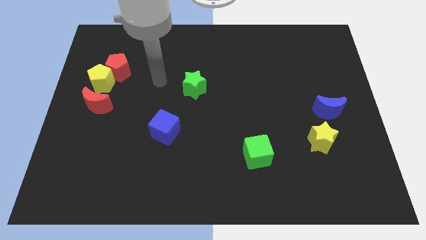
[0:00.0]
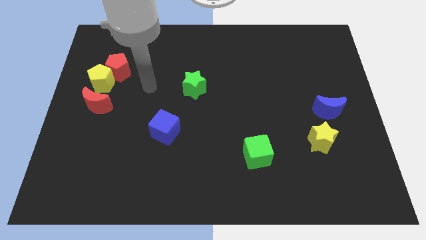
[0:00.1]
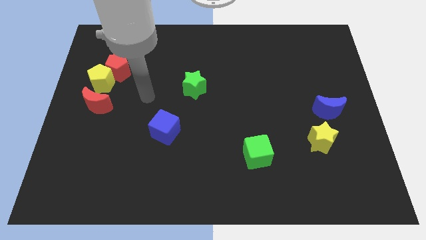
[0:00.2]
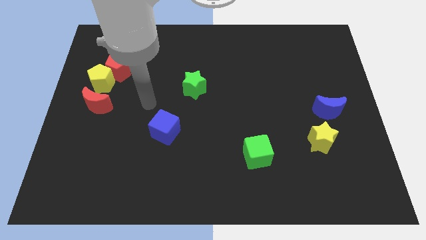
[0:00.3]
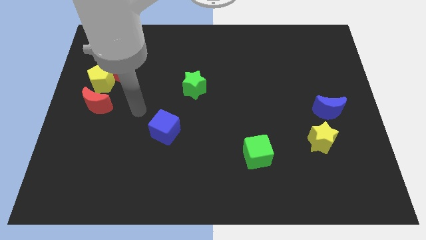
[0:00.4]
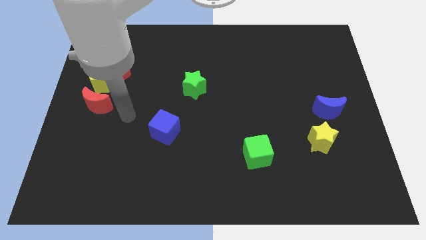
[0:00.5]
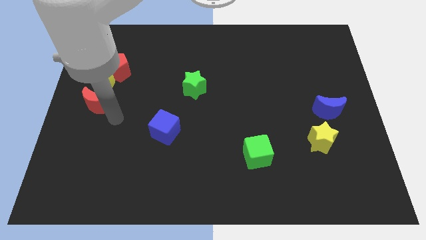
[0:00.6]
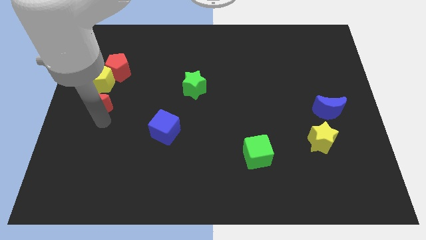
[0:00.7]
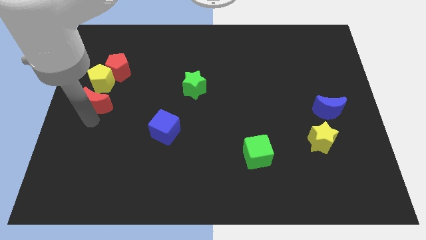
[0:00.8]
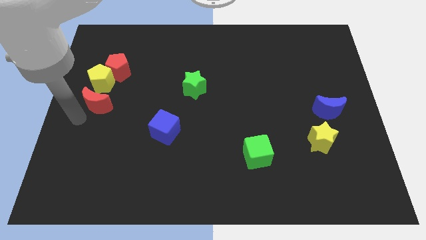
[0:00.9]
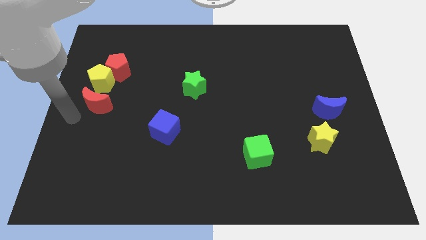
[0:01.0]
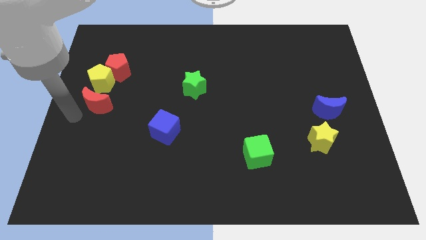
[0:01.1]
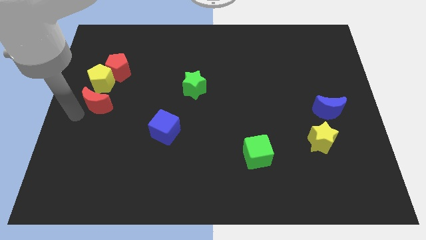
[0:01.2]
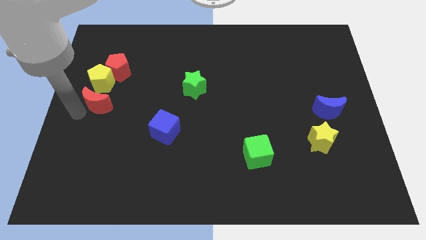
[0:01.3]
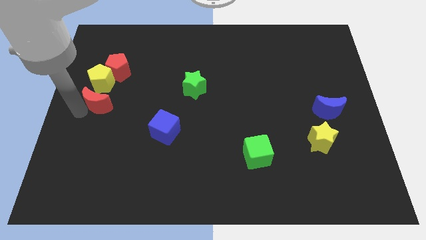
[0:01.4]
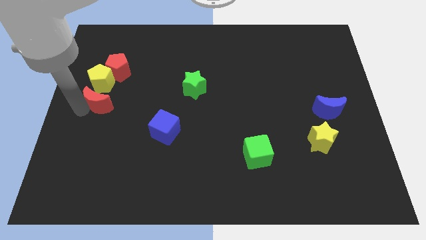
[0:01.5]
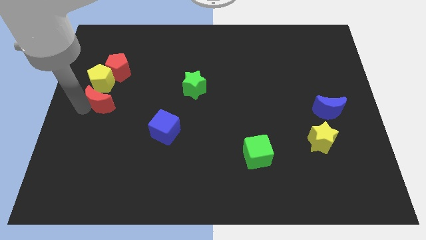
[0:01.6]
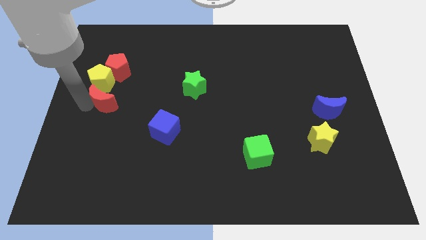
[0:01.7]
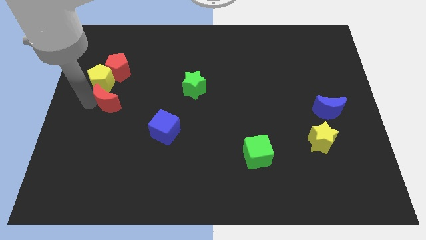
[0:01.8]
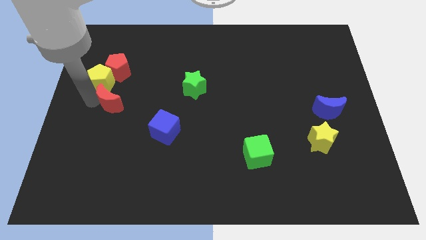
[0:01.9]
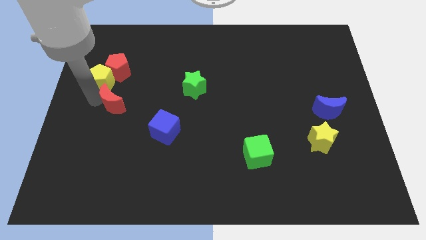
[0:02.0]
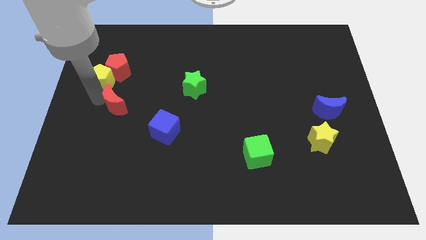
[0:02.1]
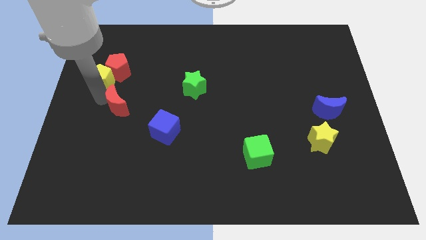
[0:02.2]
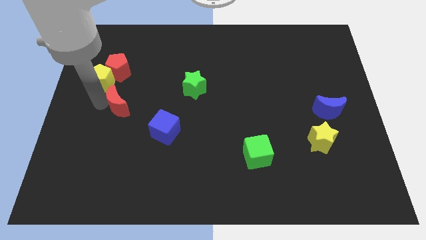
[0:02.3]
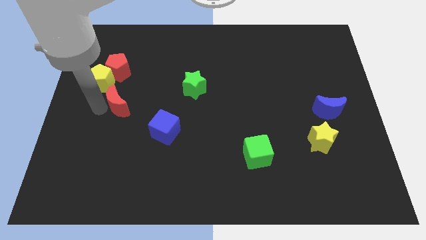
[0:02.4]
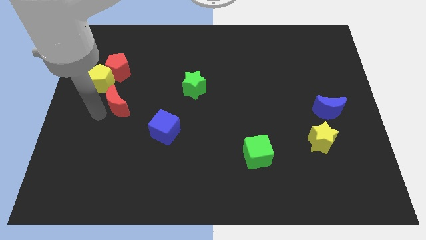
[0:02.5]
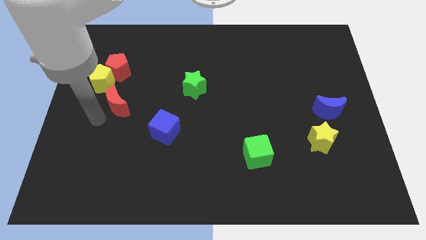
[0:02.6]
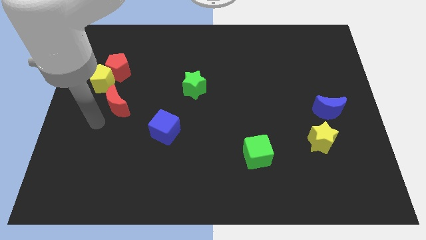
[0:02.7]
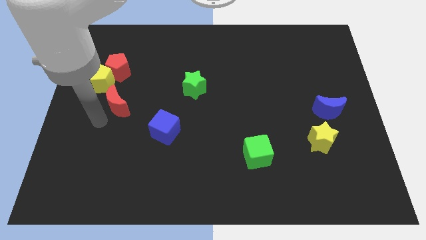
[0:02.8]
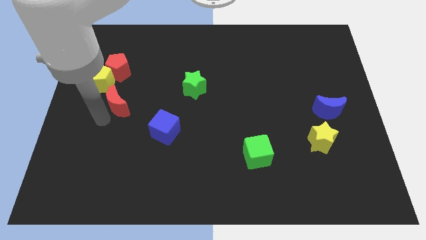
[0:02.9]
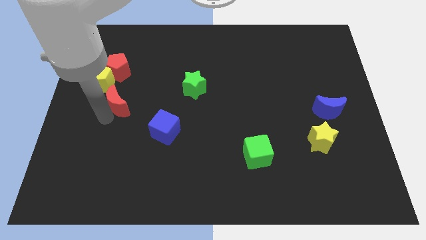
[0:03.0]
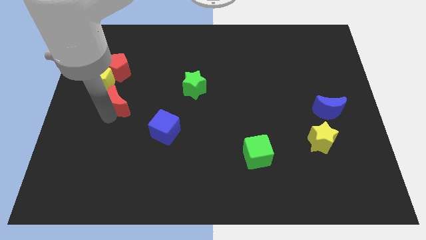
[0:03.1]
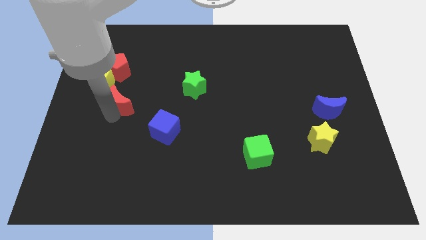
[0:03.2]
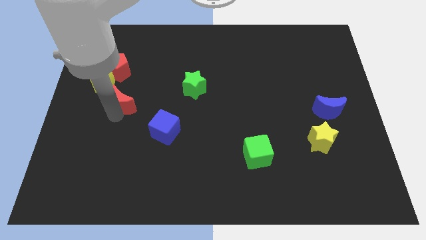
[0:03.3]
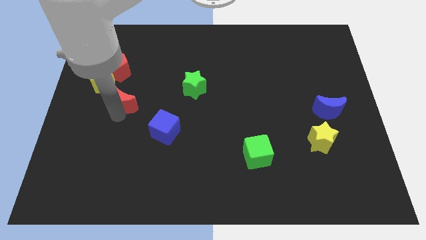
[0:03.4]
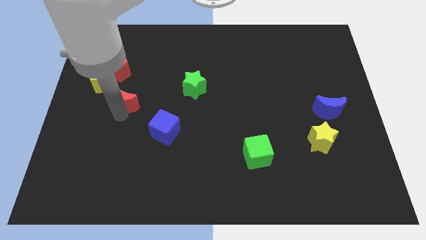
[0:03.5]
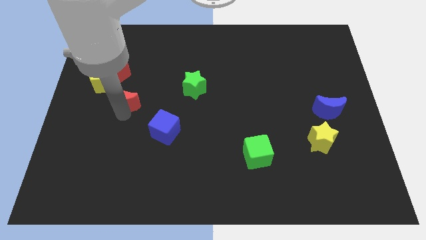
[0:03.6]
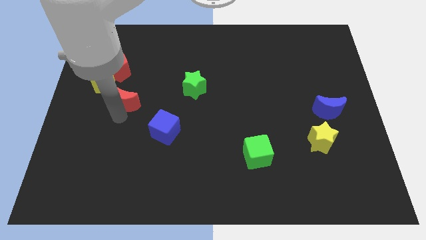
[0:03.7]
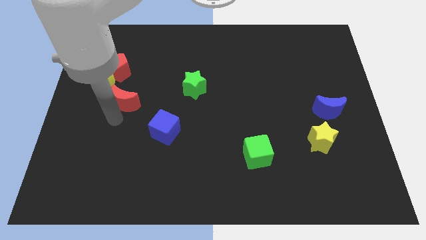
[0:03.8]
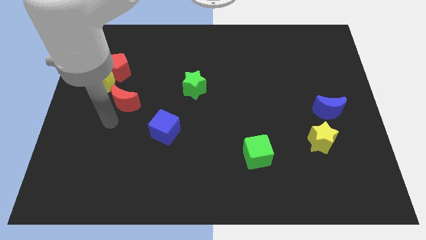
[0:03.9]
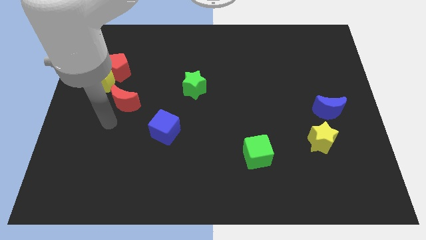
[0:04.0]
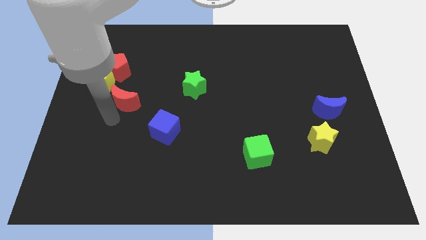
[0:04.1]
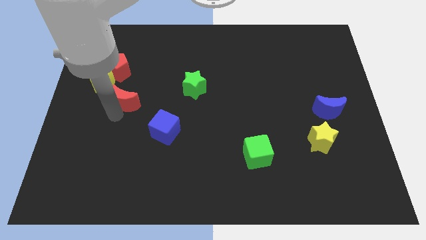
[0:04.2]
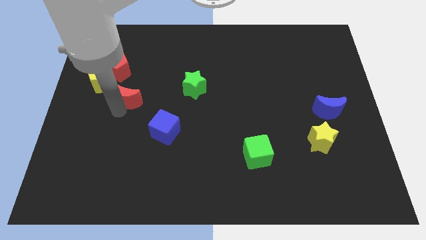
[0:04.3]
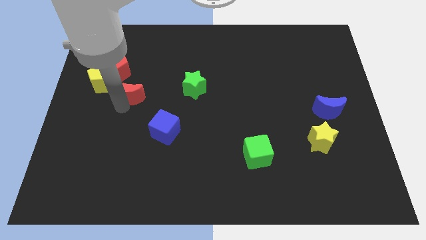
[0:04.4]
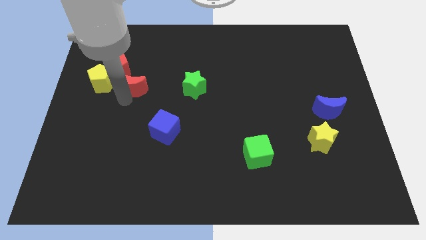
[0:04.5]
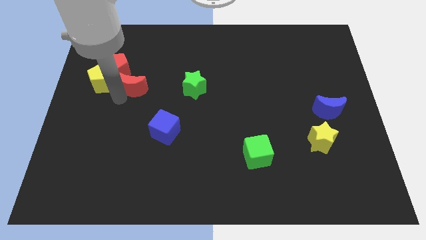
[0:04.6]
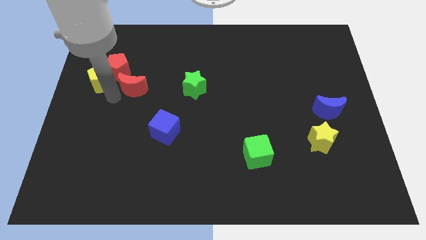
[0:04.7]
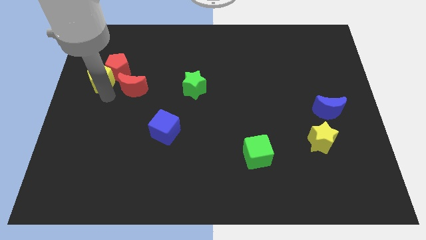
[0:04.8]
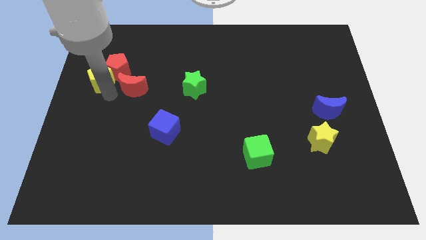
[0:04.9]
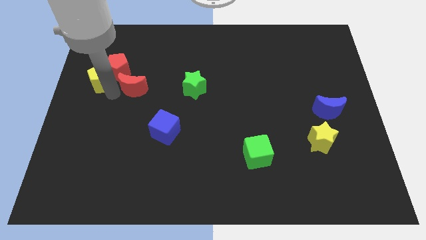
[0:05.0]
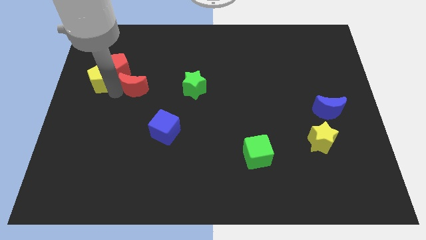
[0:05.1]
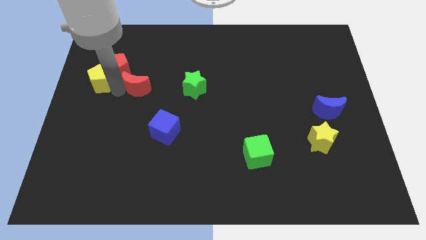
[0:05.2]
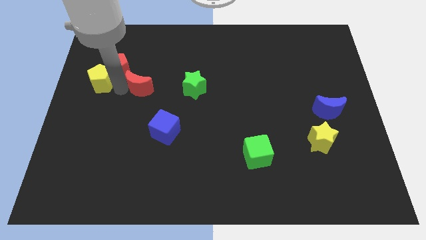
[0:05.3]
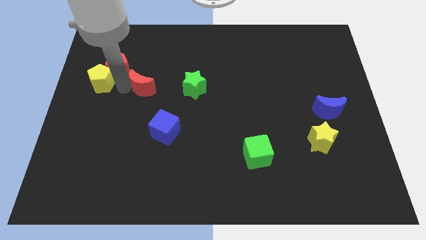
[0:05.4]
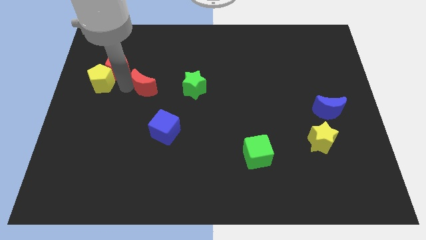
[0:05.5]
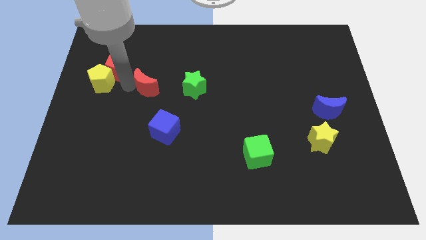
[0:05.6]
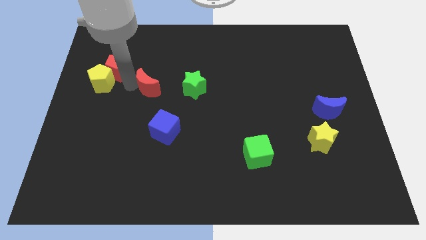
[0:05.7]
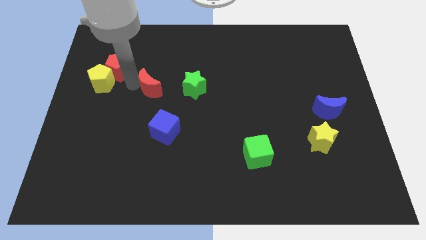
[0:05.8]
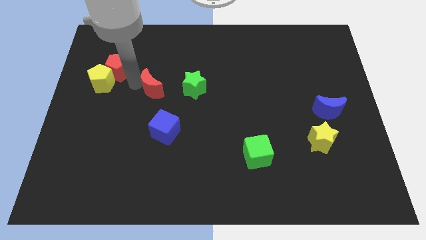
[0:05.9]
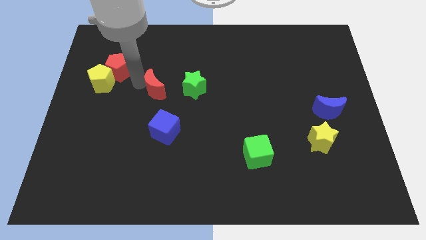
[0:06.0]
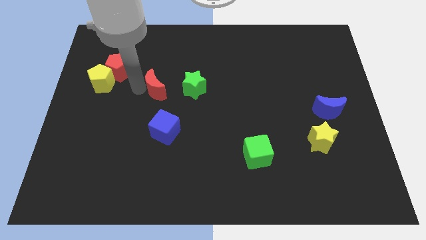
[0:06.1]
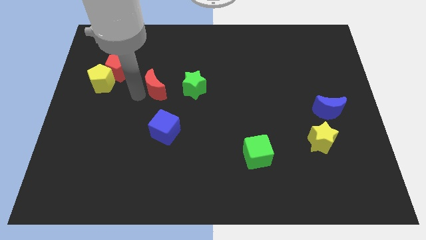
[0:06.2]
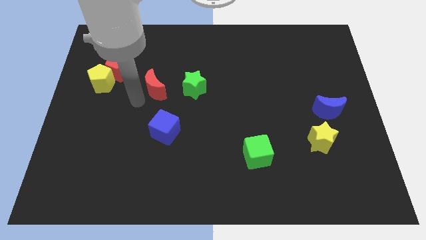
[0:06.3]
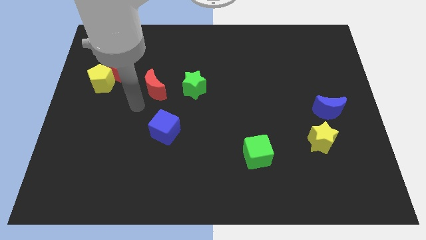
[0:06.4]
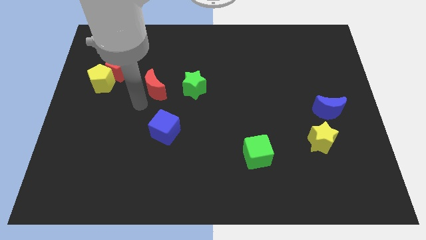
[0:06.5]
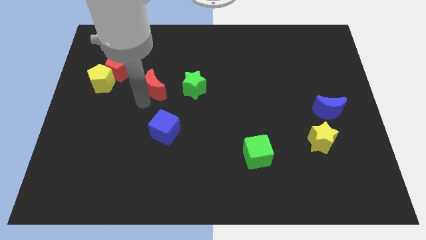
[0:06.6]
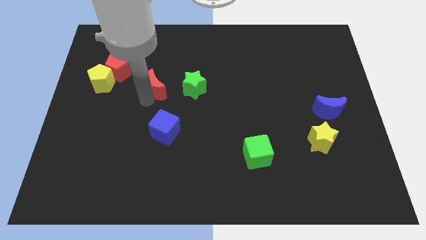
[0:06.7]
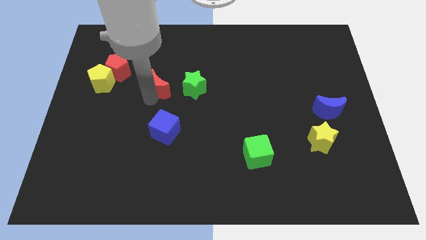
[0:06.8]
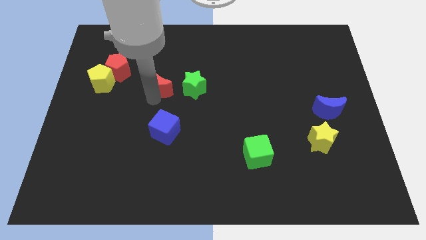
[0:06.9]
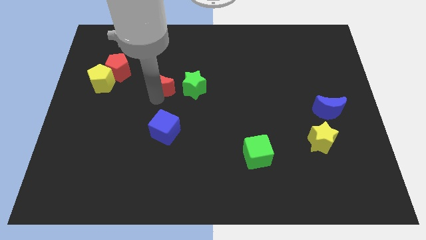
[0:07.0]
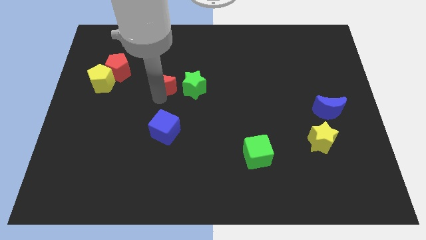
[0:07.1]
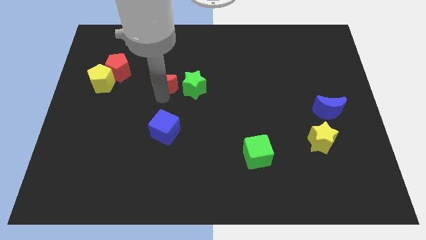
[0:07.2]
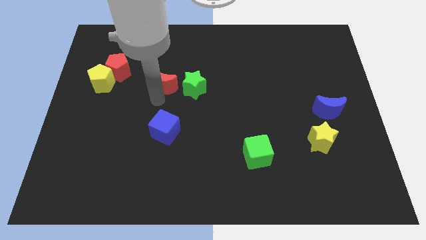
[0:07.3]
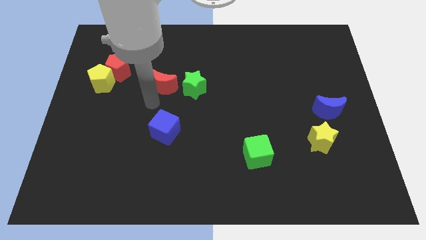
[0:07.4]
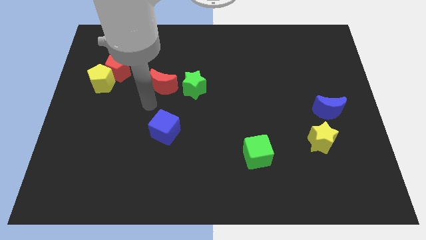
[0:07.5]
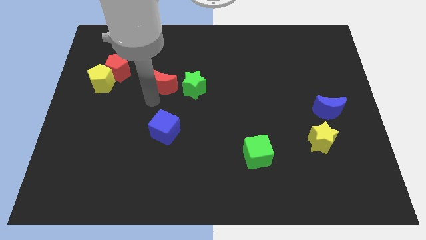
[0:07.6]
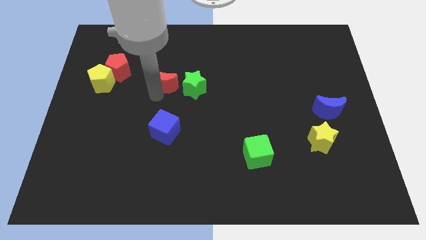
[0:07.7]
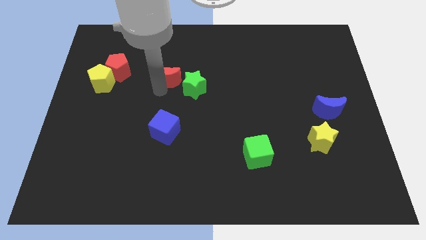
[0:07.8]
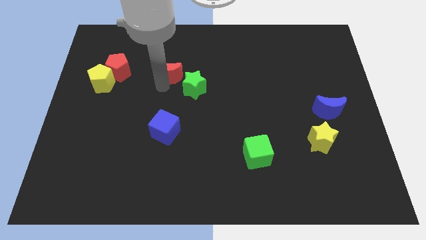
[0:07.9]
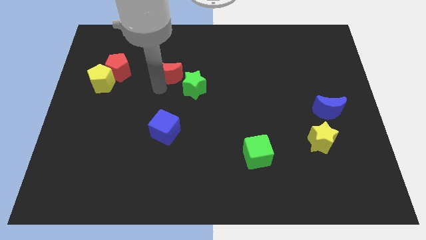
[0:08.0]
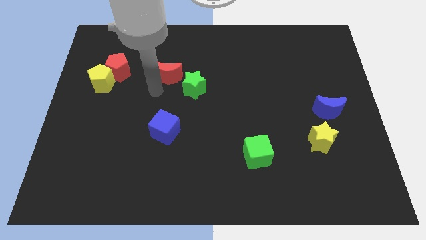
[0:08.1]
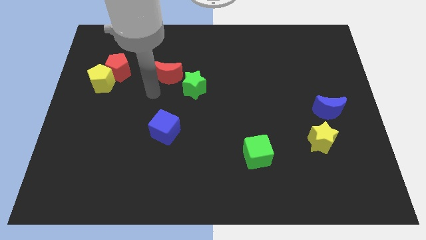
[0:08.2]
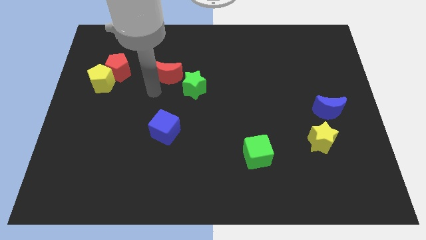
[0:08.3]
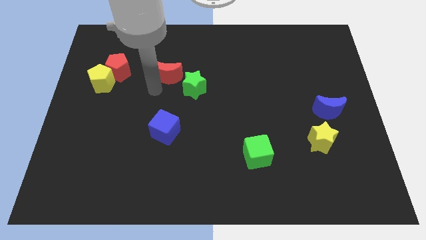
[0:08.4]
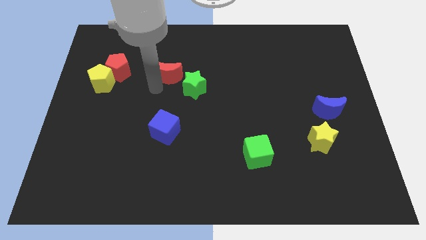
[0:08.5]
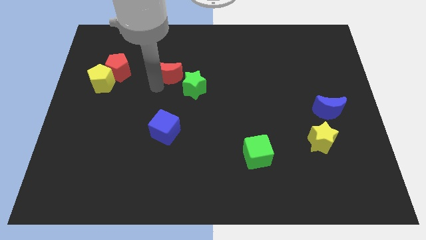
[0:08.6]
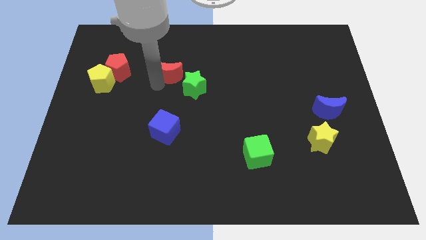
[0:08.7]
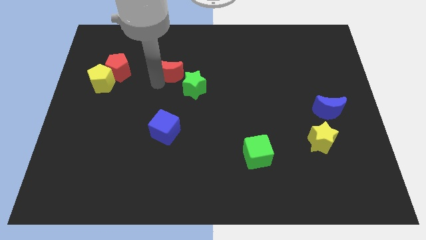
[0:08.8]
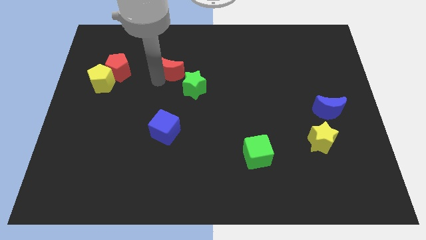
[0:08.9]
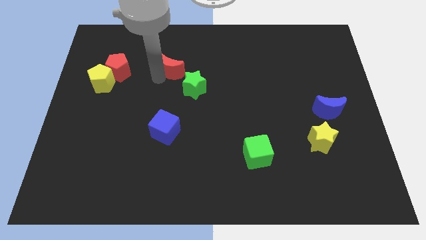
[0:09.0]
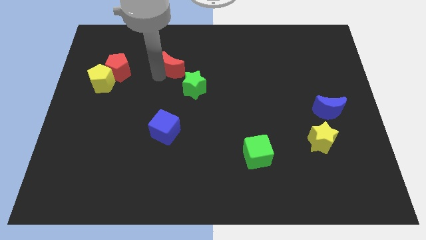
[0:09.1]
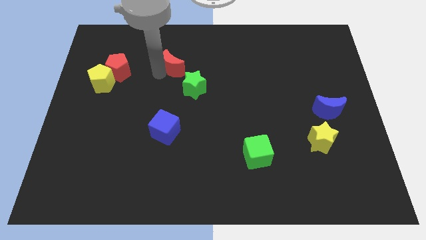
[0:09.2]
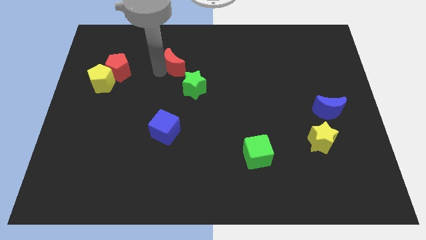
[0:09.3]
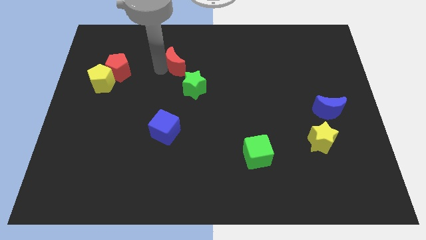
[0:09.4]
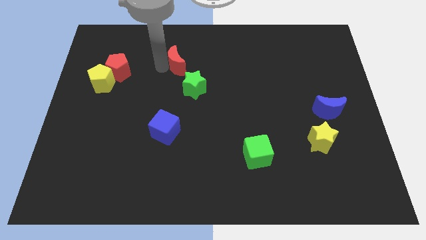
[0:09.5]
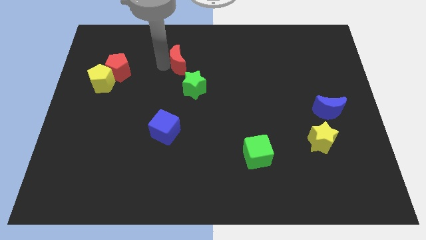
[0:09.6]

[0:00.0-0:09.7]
move the red moon to the top side of the green star
